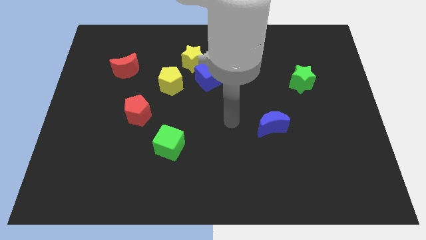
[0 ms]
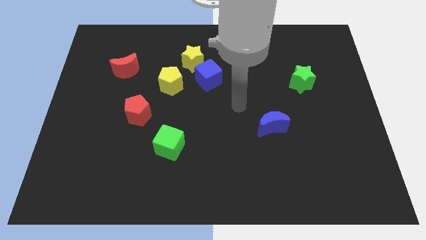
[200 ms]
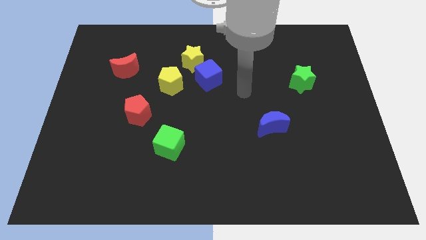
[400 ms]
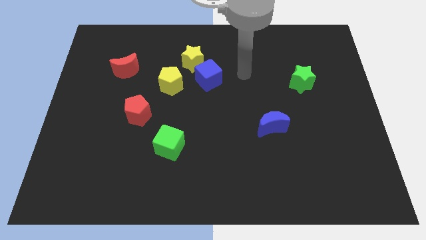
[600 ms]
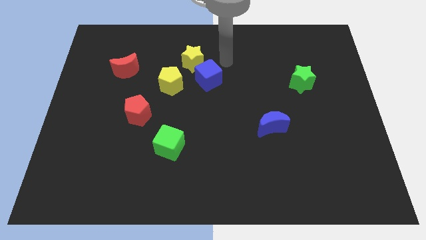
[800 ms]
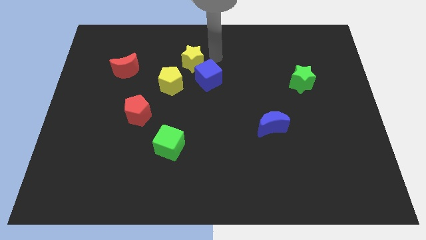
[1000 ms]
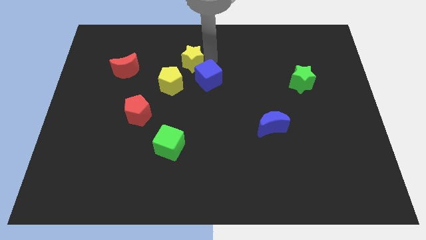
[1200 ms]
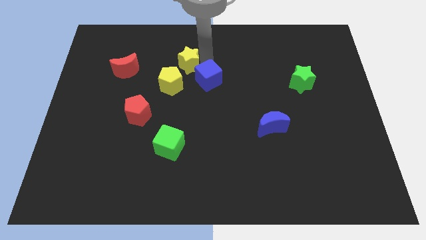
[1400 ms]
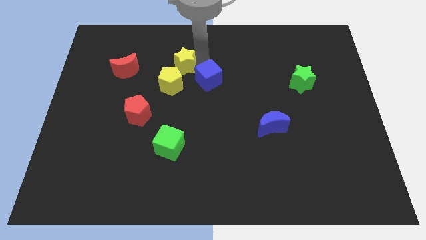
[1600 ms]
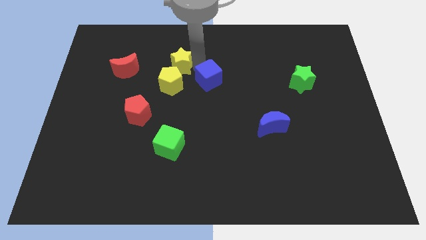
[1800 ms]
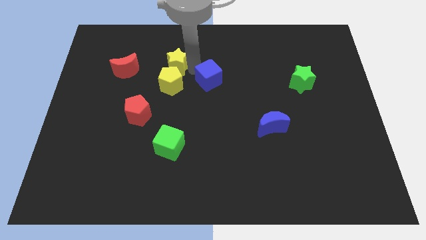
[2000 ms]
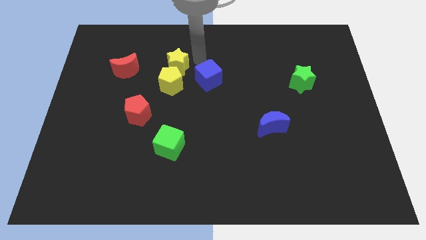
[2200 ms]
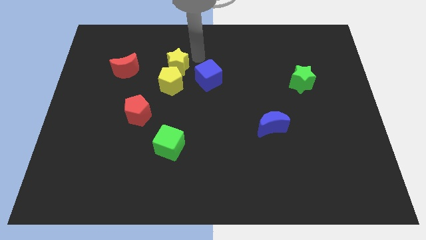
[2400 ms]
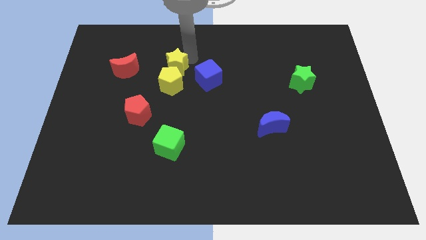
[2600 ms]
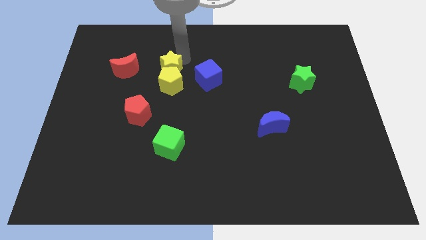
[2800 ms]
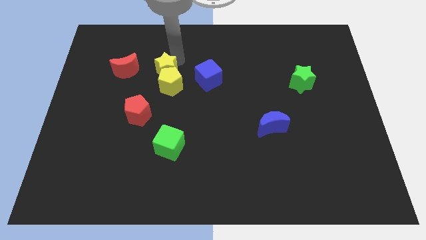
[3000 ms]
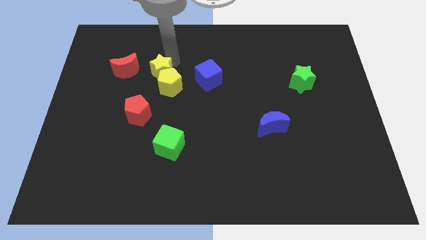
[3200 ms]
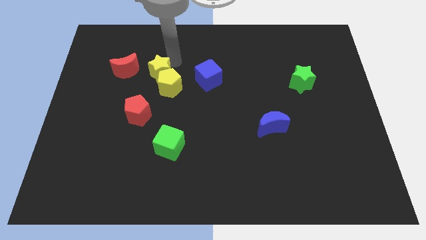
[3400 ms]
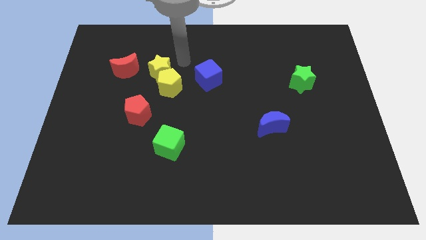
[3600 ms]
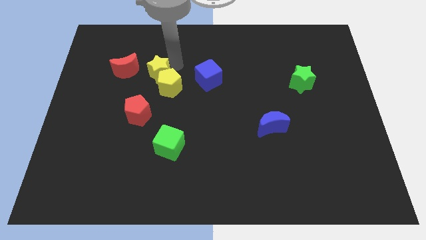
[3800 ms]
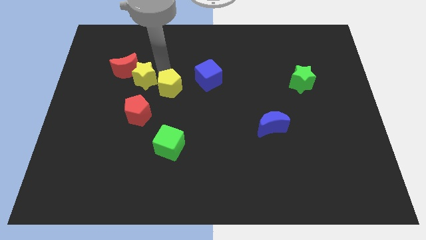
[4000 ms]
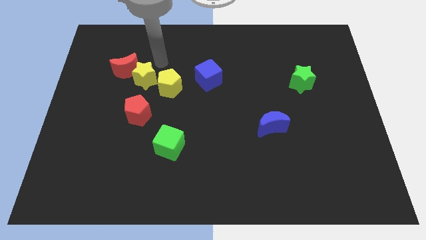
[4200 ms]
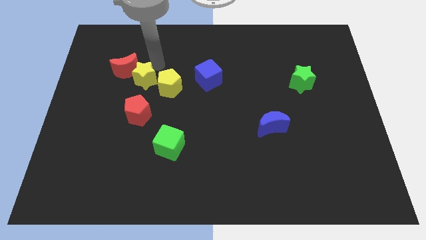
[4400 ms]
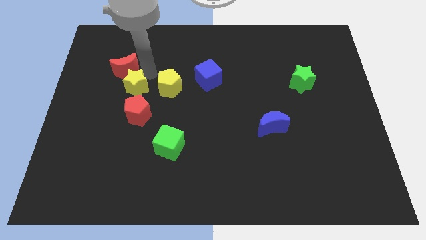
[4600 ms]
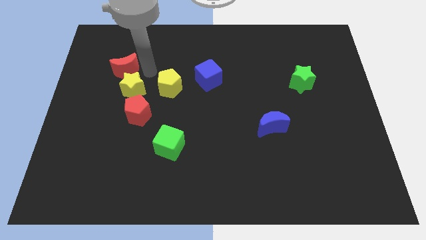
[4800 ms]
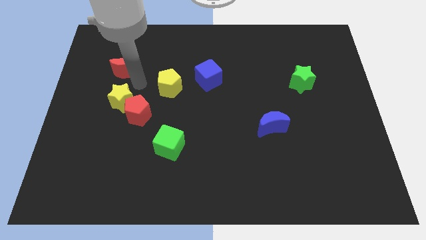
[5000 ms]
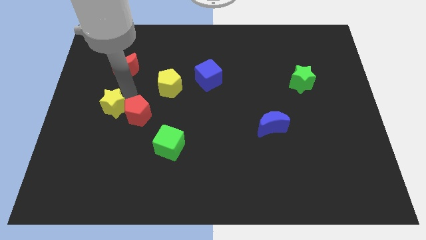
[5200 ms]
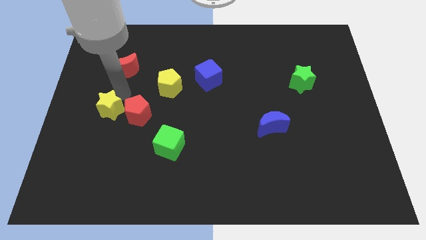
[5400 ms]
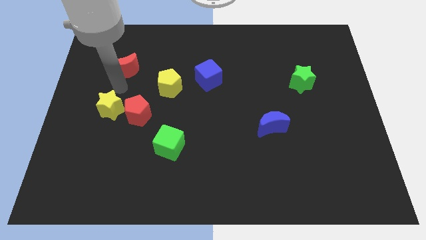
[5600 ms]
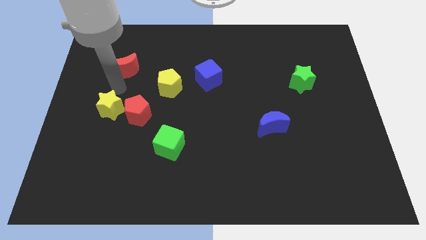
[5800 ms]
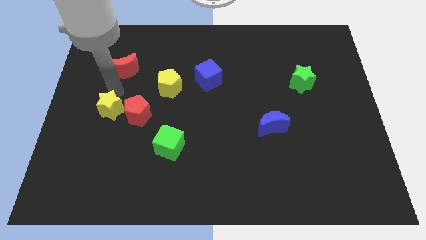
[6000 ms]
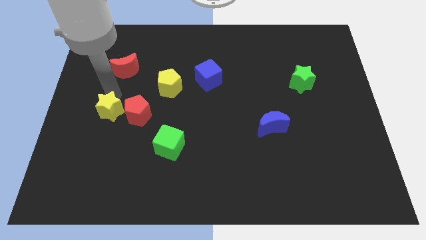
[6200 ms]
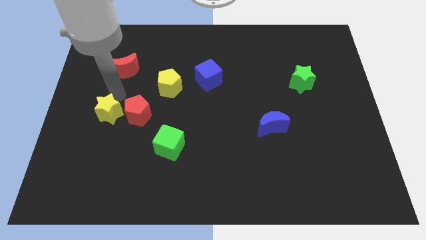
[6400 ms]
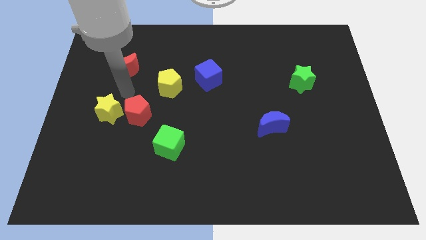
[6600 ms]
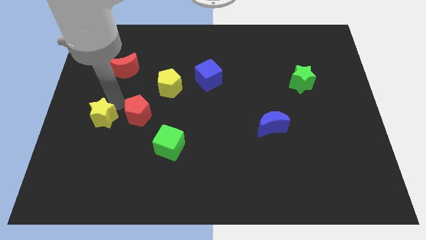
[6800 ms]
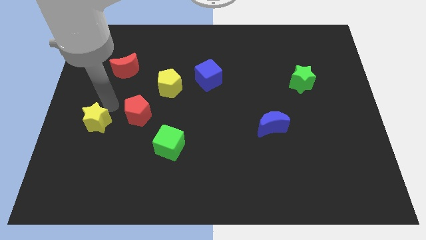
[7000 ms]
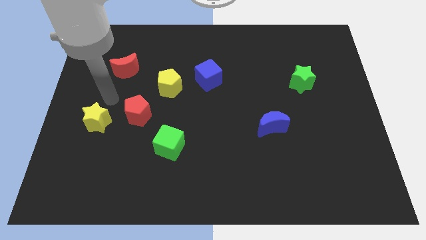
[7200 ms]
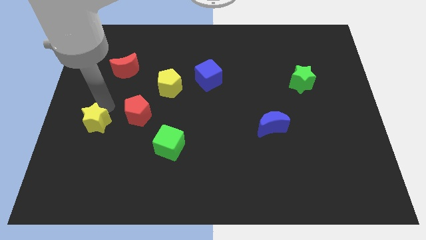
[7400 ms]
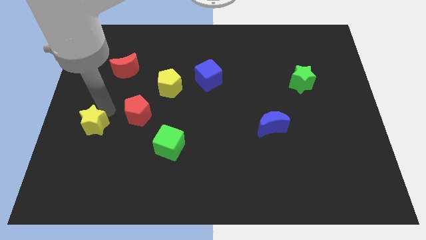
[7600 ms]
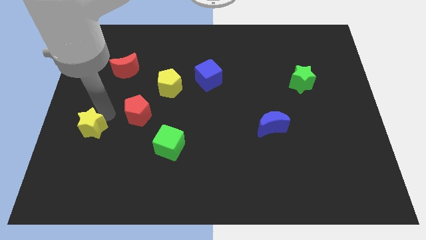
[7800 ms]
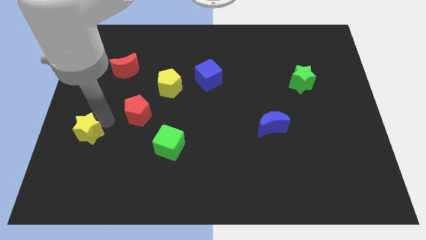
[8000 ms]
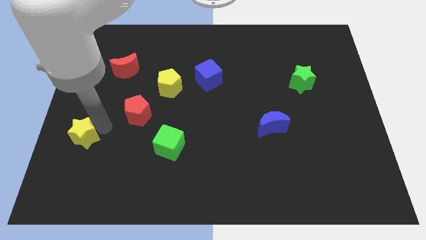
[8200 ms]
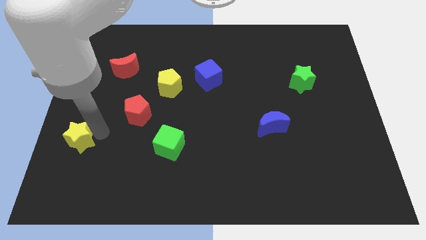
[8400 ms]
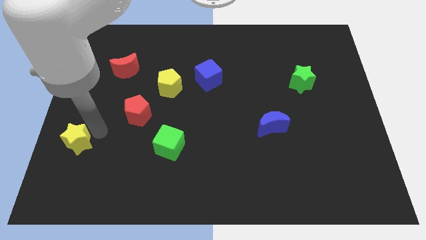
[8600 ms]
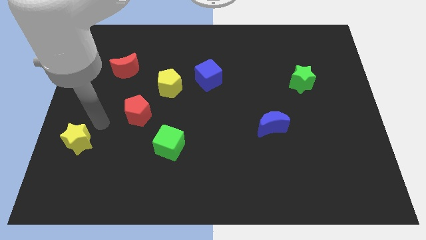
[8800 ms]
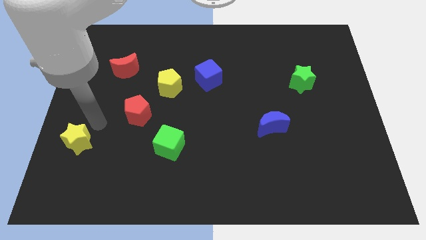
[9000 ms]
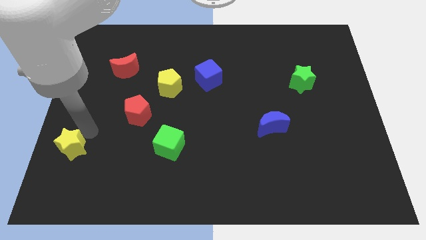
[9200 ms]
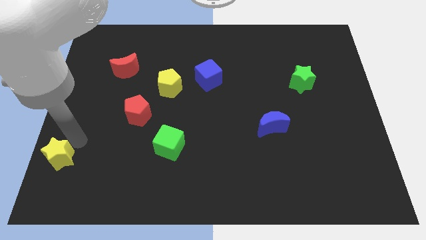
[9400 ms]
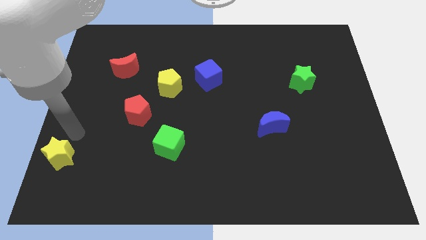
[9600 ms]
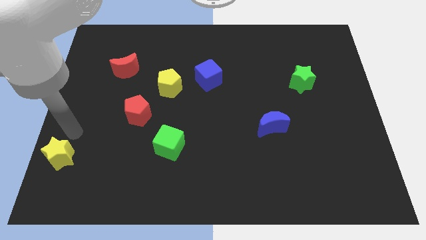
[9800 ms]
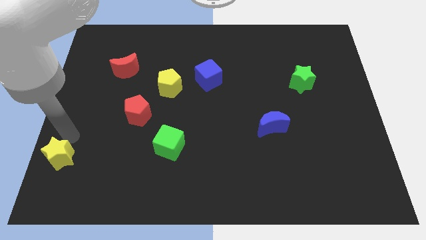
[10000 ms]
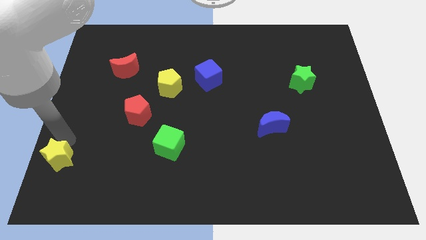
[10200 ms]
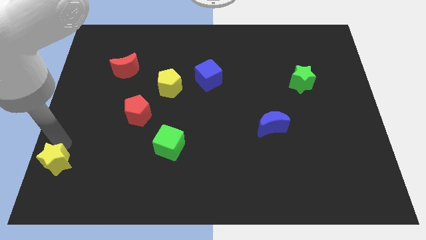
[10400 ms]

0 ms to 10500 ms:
put the yellow star to the bottom left corner

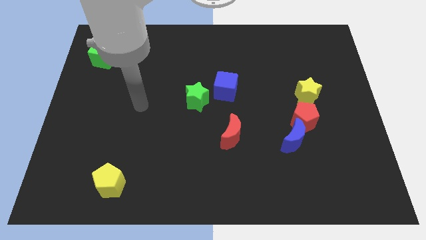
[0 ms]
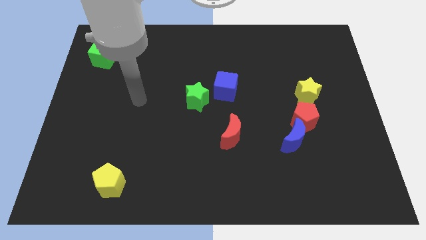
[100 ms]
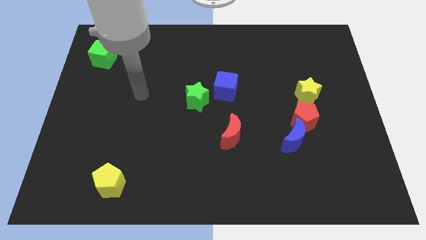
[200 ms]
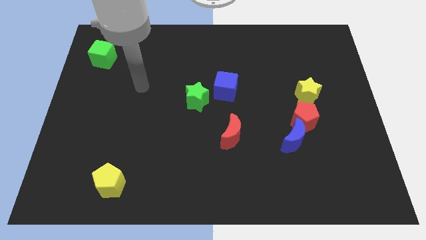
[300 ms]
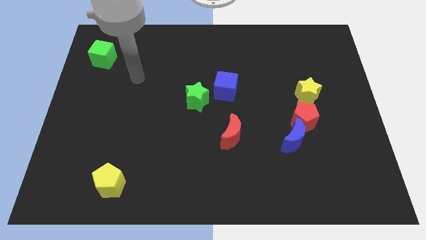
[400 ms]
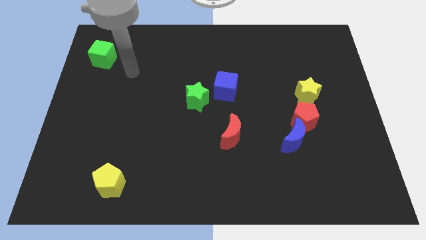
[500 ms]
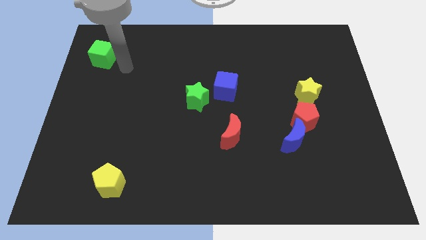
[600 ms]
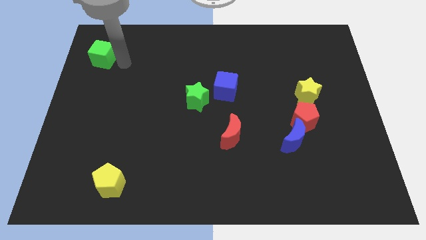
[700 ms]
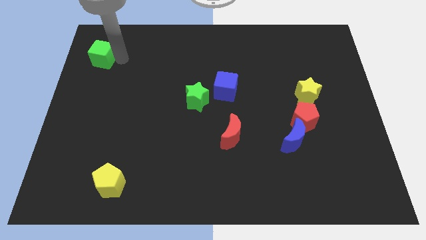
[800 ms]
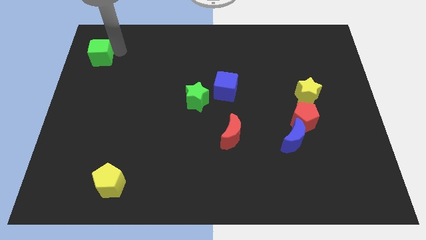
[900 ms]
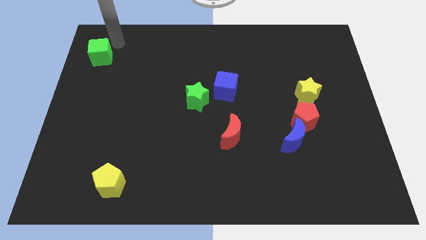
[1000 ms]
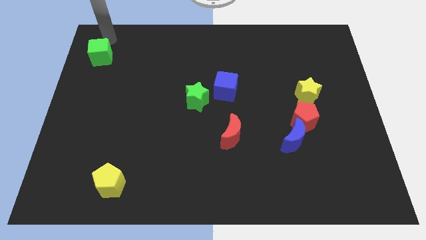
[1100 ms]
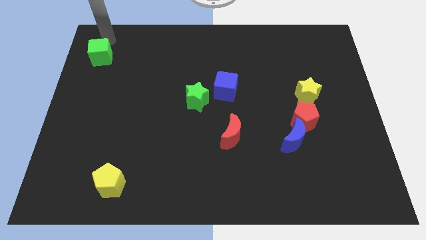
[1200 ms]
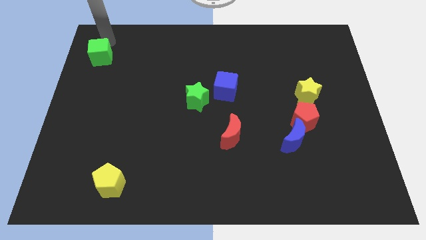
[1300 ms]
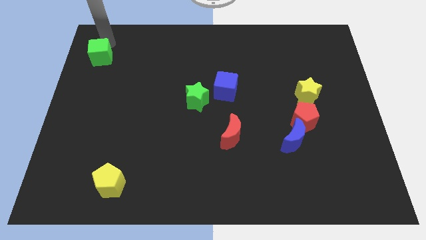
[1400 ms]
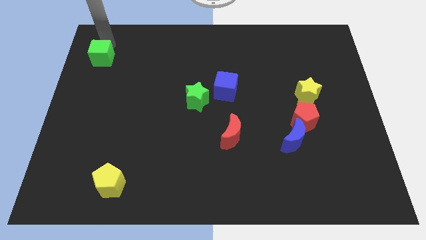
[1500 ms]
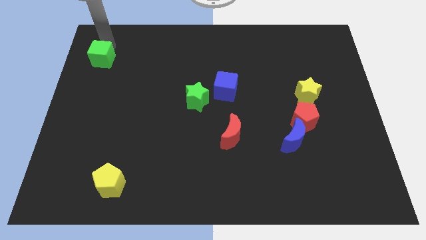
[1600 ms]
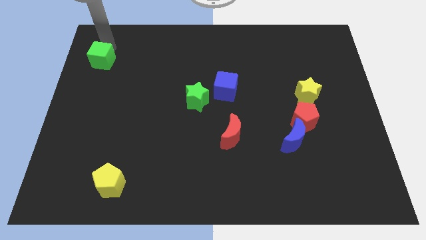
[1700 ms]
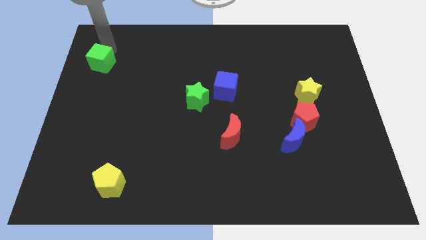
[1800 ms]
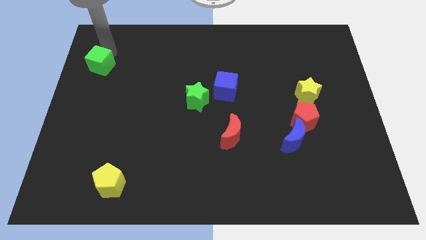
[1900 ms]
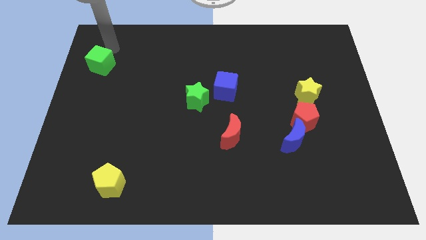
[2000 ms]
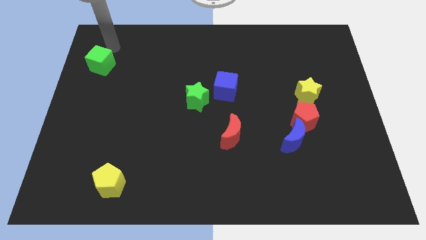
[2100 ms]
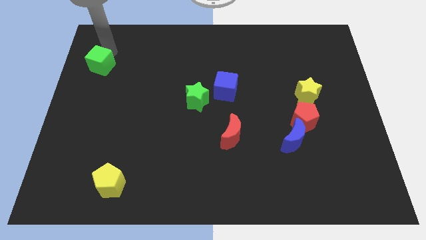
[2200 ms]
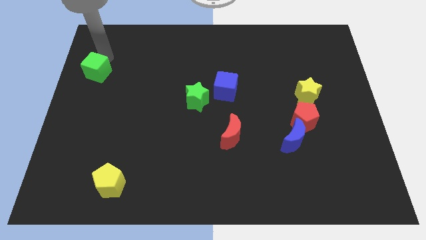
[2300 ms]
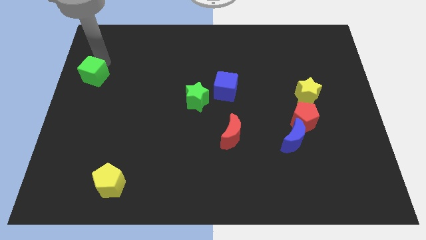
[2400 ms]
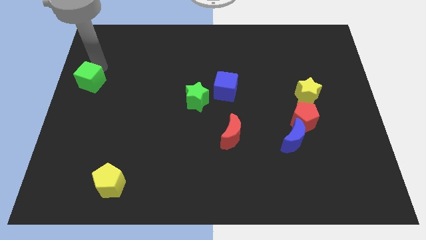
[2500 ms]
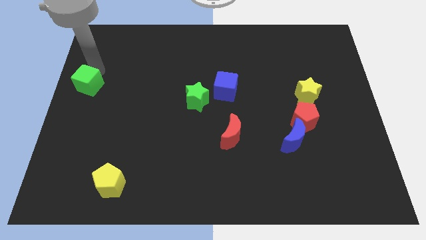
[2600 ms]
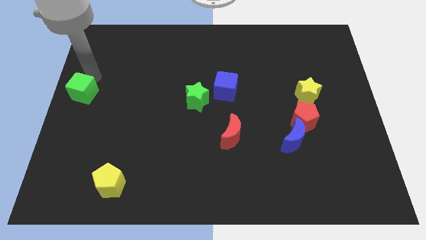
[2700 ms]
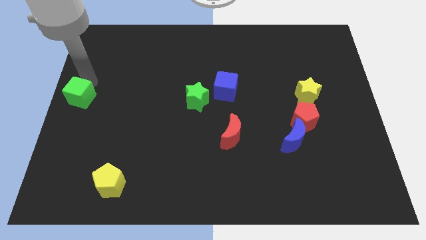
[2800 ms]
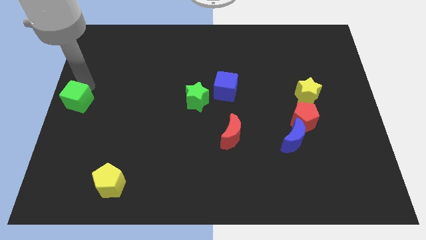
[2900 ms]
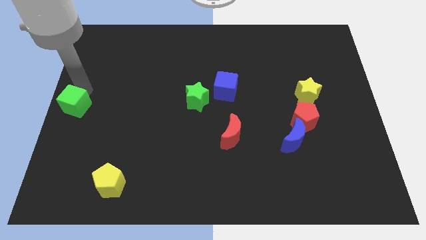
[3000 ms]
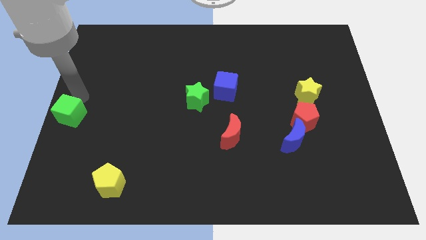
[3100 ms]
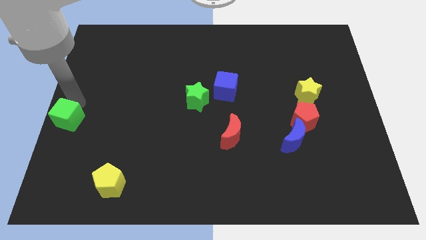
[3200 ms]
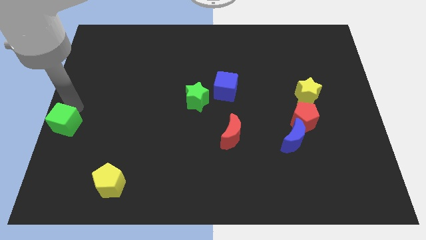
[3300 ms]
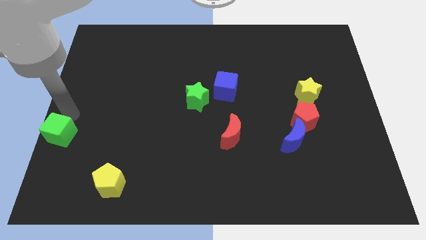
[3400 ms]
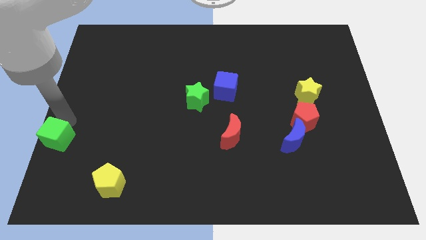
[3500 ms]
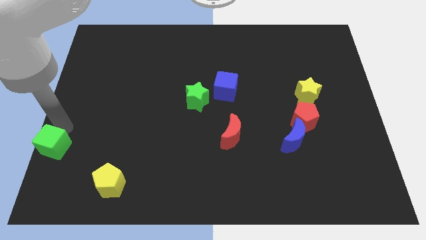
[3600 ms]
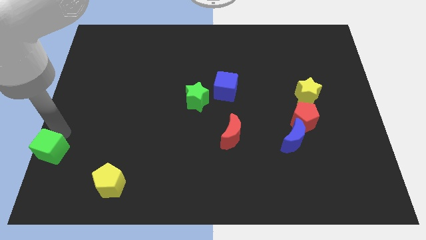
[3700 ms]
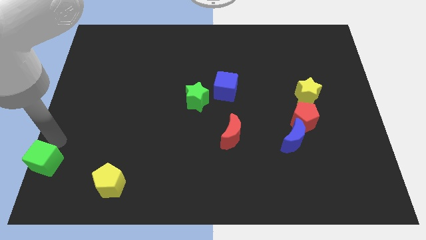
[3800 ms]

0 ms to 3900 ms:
move the green cube to the bottom left of the board
